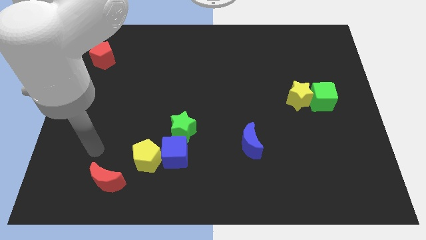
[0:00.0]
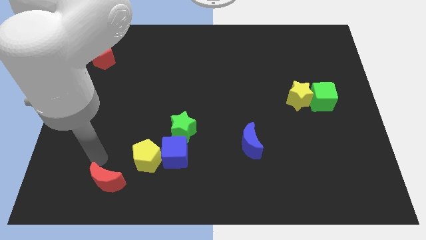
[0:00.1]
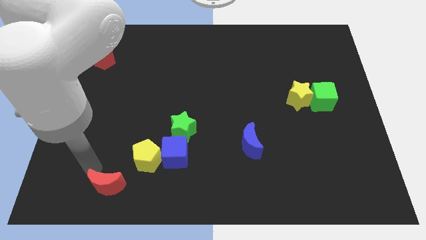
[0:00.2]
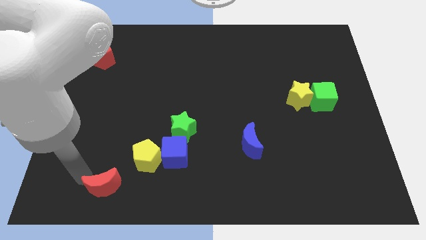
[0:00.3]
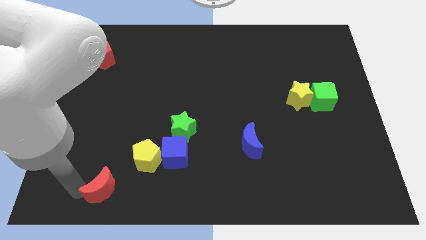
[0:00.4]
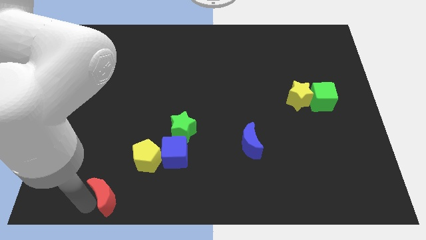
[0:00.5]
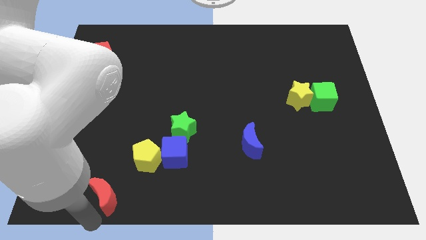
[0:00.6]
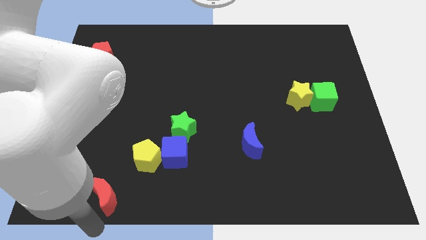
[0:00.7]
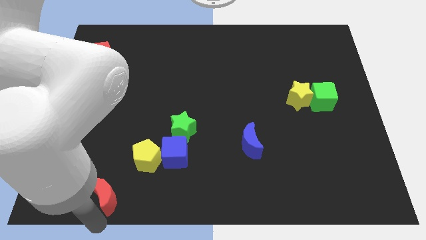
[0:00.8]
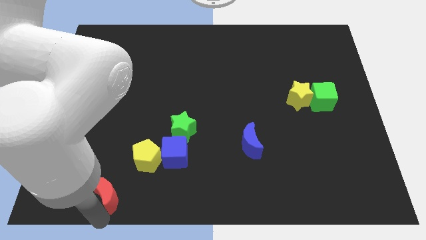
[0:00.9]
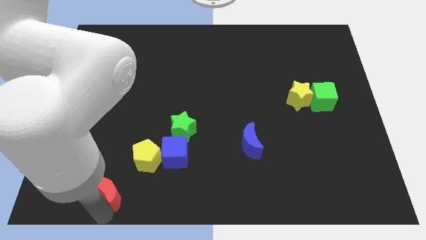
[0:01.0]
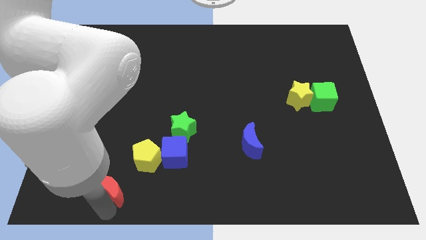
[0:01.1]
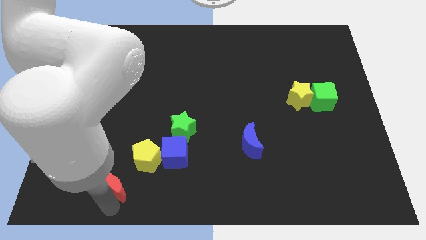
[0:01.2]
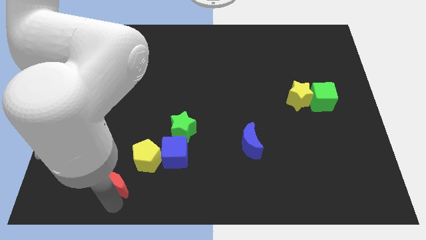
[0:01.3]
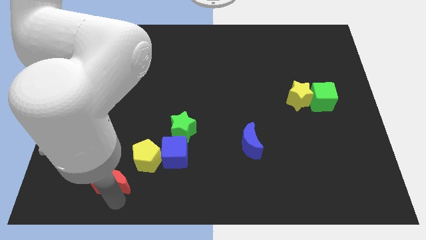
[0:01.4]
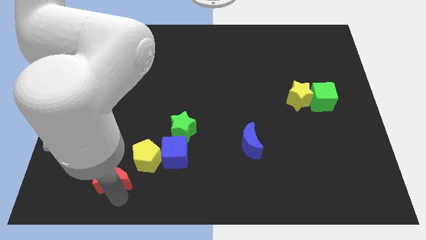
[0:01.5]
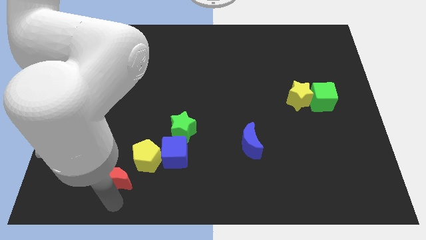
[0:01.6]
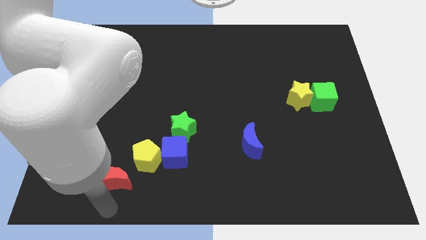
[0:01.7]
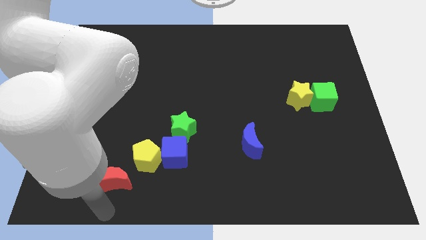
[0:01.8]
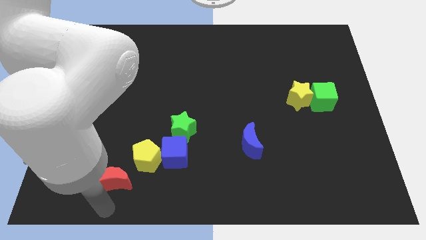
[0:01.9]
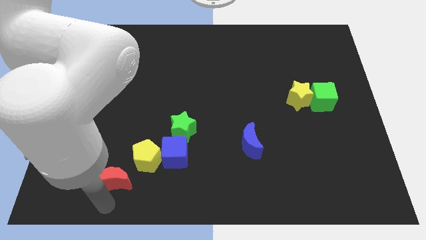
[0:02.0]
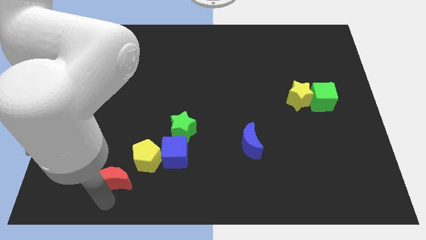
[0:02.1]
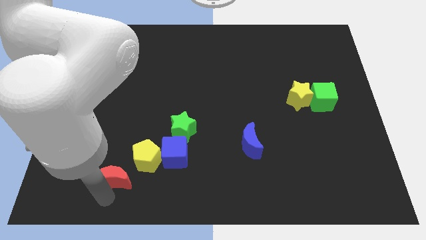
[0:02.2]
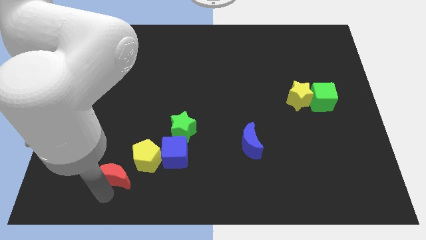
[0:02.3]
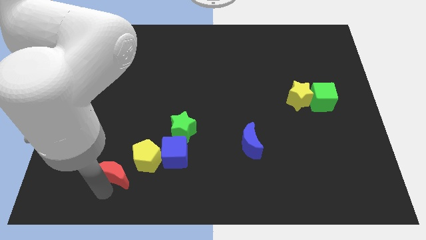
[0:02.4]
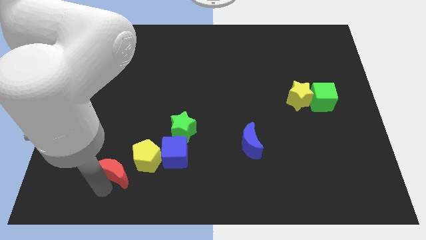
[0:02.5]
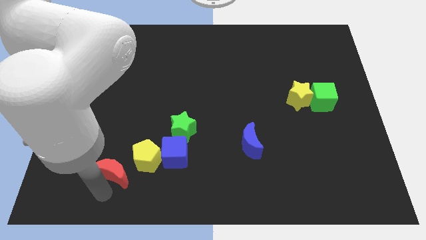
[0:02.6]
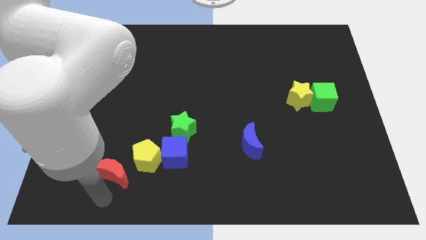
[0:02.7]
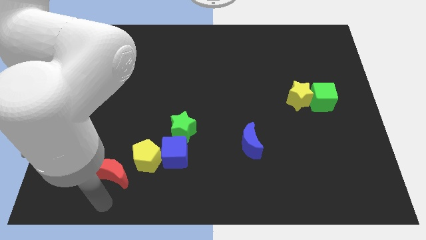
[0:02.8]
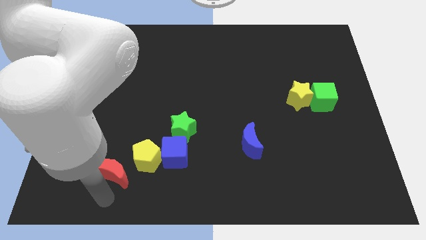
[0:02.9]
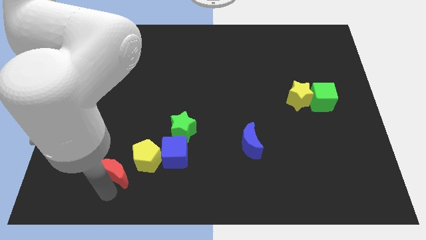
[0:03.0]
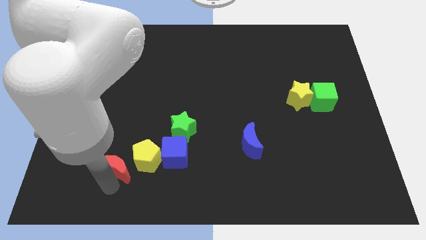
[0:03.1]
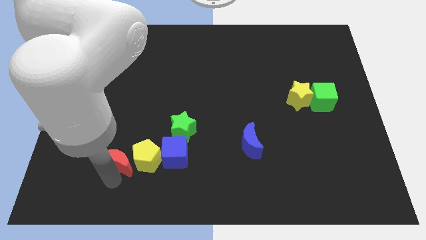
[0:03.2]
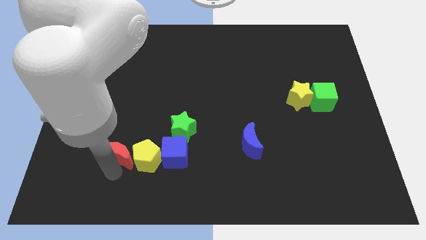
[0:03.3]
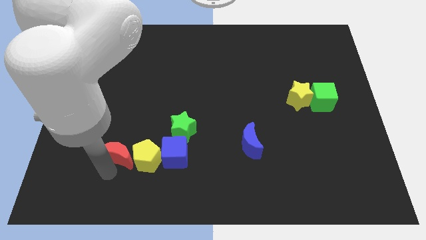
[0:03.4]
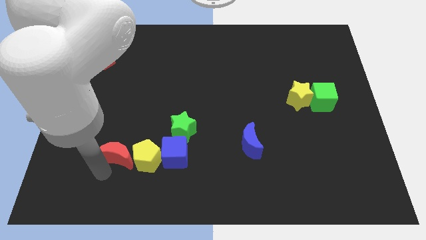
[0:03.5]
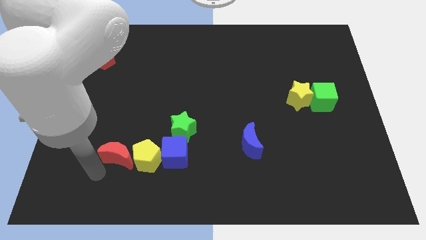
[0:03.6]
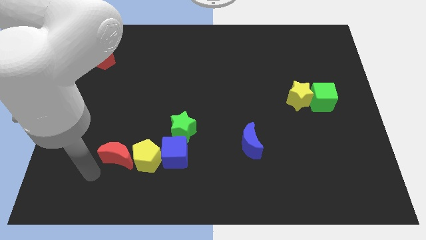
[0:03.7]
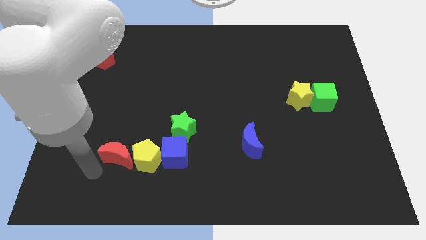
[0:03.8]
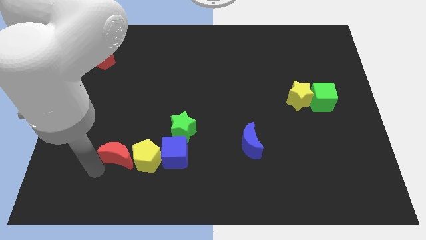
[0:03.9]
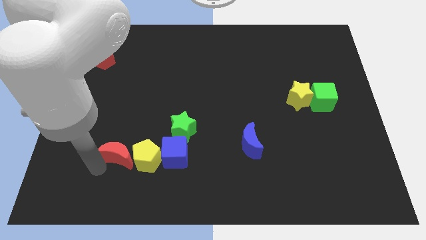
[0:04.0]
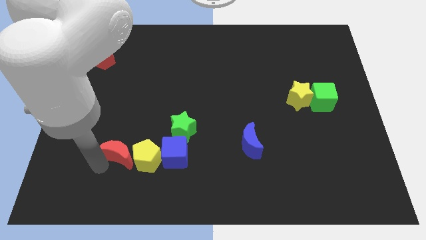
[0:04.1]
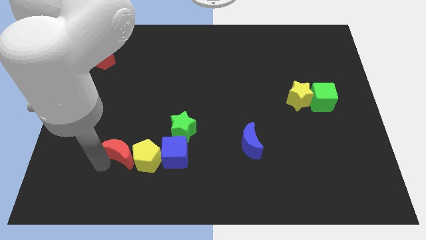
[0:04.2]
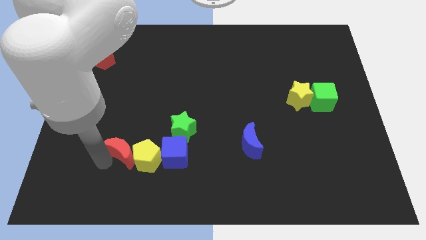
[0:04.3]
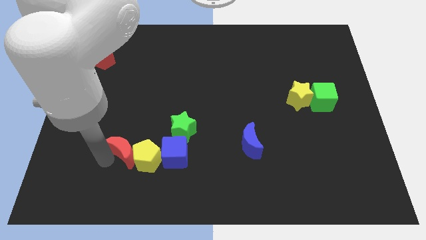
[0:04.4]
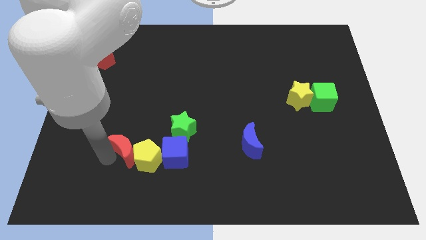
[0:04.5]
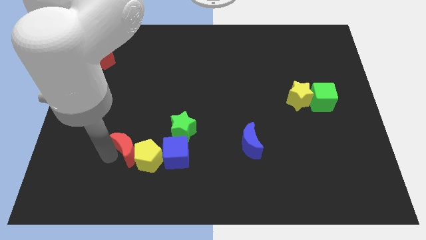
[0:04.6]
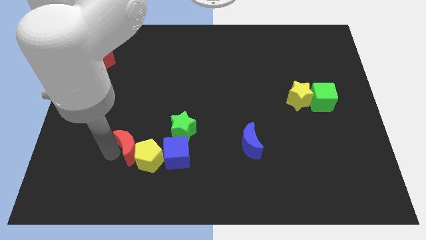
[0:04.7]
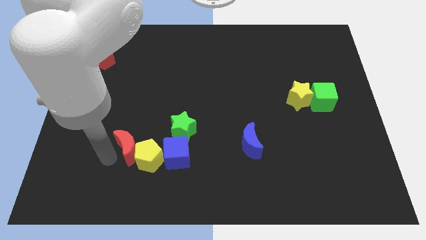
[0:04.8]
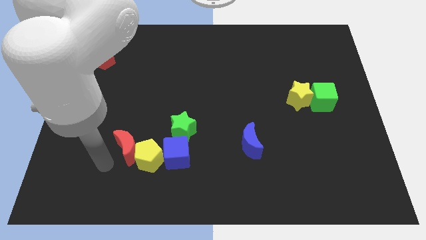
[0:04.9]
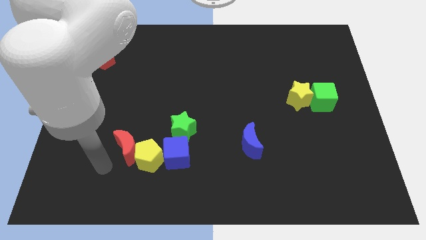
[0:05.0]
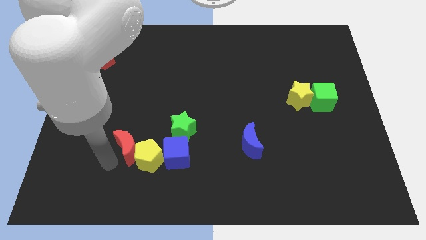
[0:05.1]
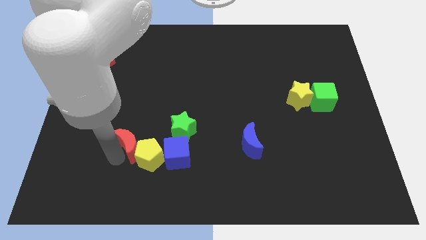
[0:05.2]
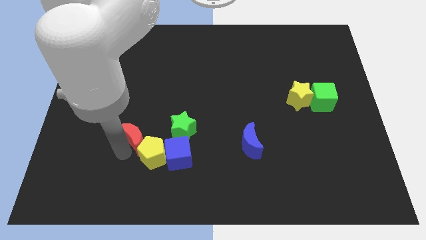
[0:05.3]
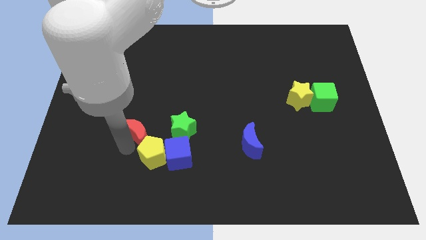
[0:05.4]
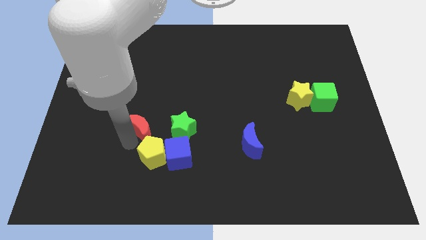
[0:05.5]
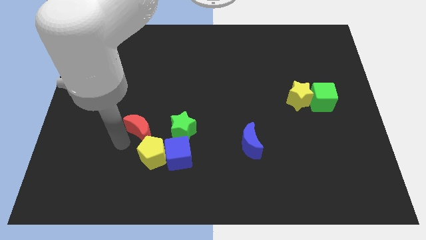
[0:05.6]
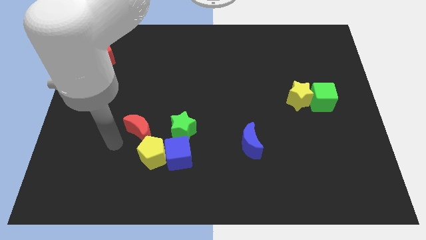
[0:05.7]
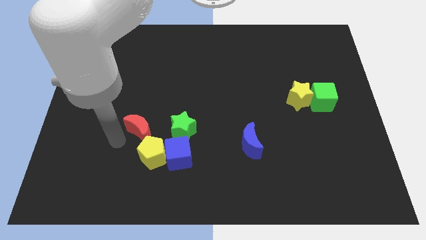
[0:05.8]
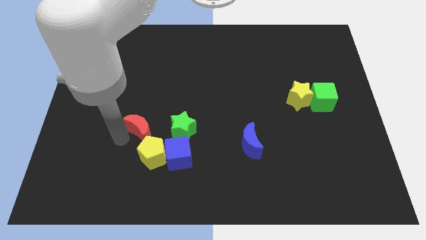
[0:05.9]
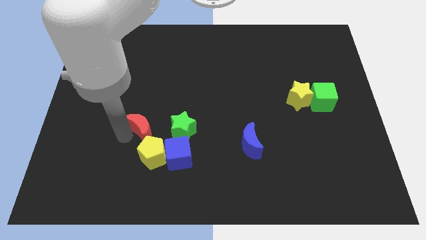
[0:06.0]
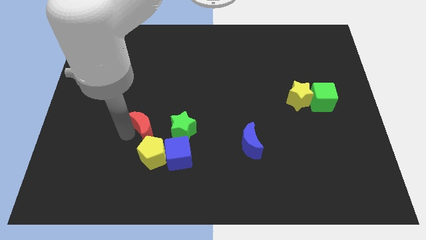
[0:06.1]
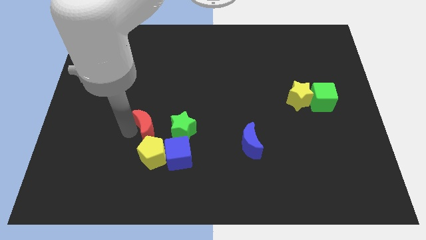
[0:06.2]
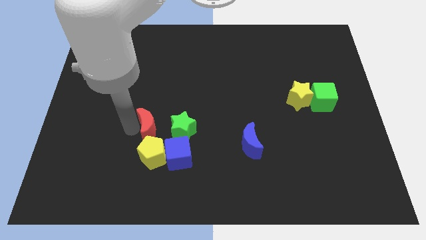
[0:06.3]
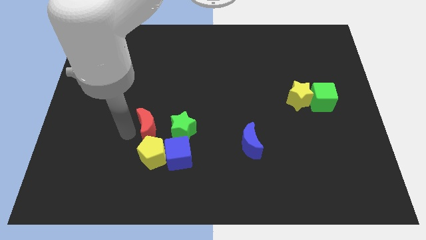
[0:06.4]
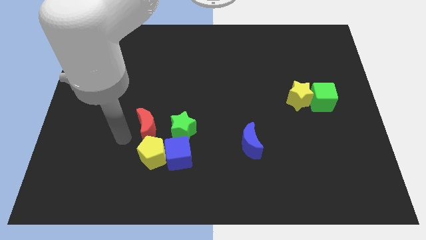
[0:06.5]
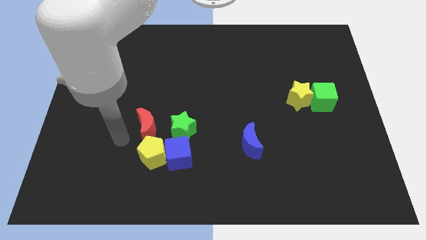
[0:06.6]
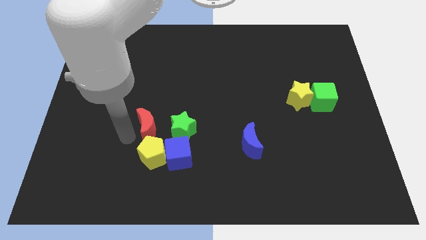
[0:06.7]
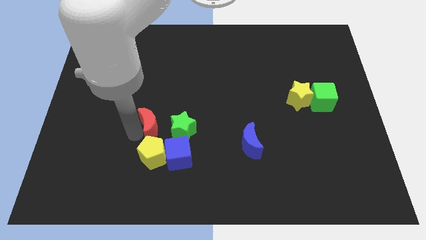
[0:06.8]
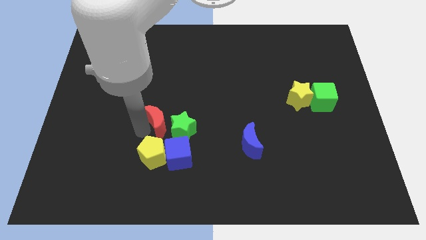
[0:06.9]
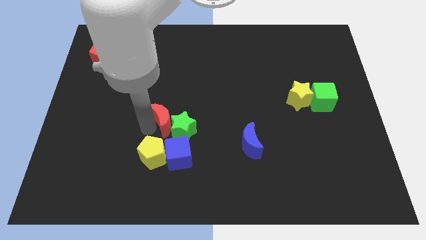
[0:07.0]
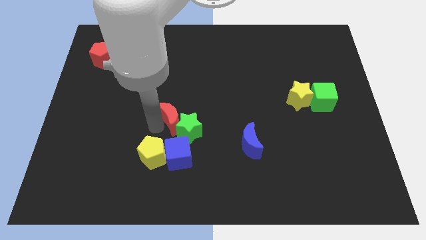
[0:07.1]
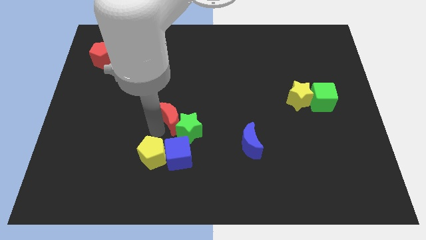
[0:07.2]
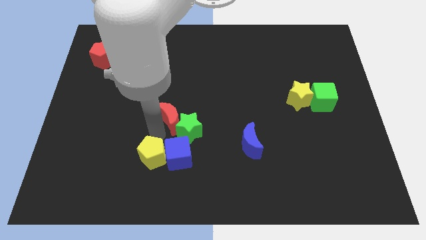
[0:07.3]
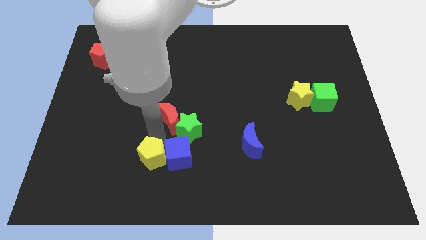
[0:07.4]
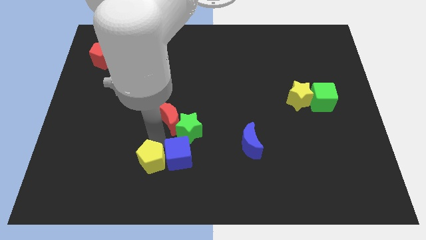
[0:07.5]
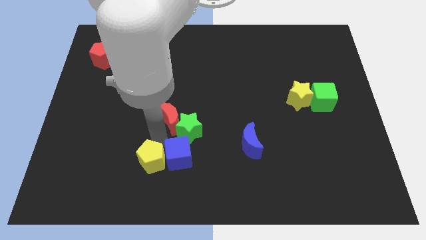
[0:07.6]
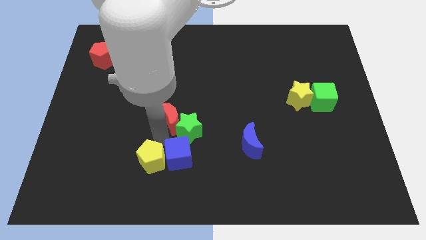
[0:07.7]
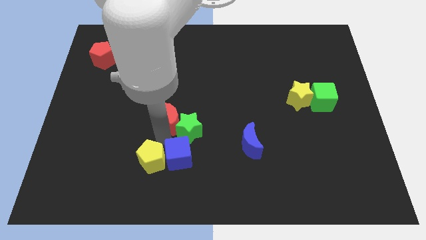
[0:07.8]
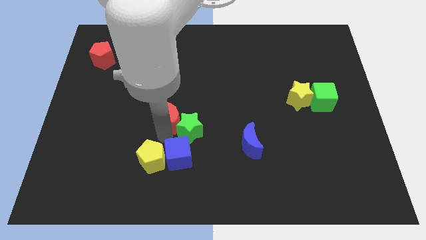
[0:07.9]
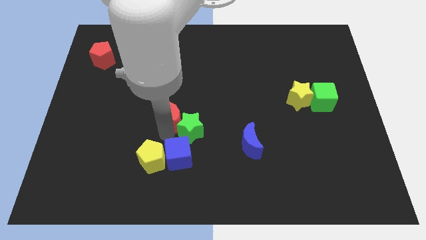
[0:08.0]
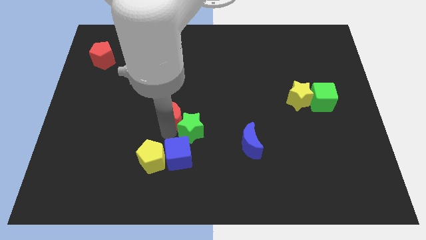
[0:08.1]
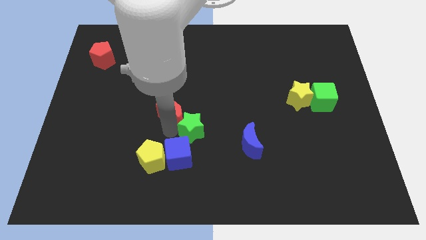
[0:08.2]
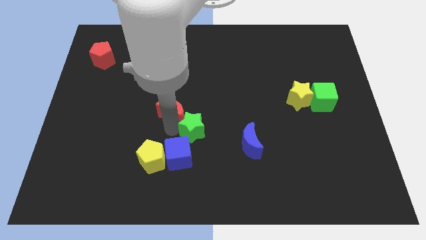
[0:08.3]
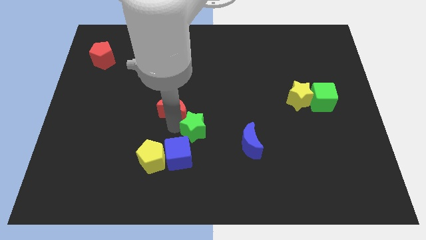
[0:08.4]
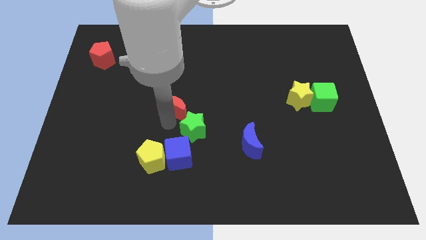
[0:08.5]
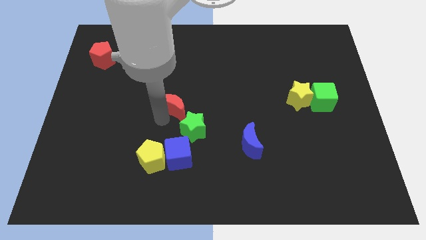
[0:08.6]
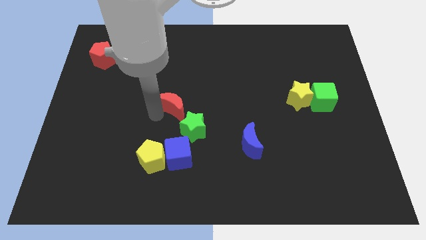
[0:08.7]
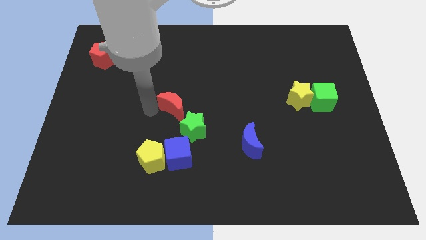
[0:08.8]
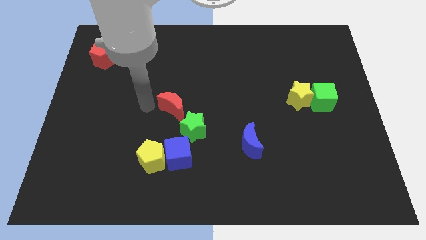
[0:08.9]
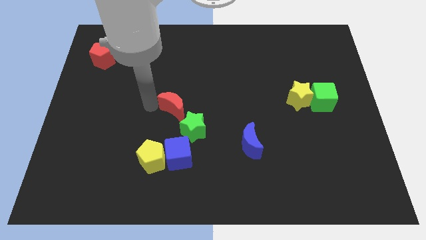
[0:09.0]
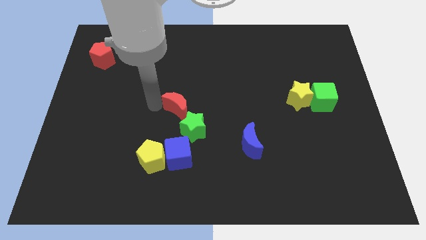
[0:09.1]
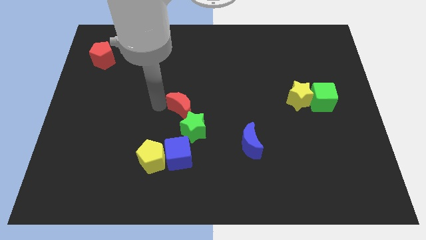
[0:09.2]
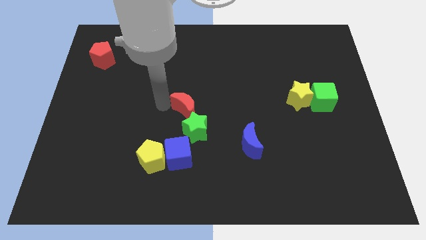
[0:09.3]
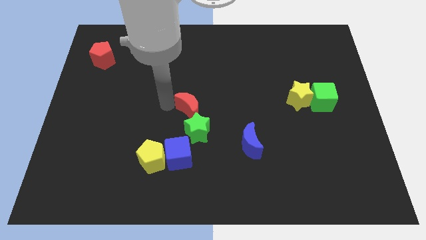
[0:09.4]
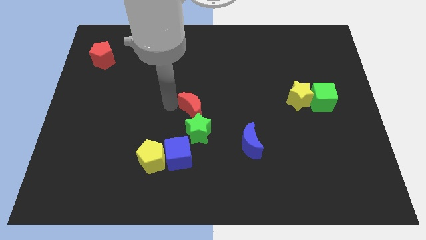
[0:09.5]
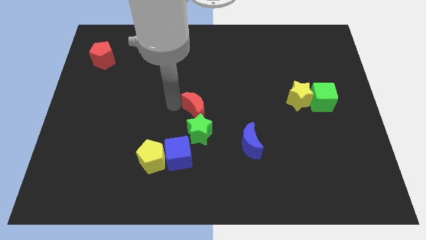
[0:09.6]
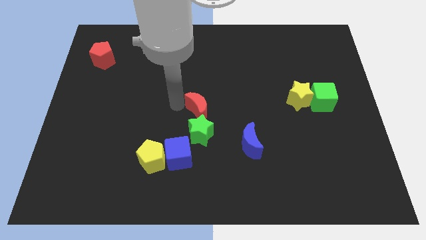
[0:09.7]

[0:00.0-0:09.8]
put the red moon to the top right side of the green star
